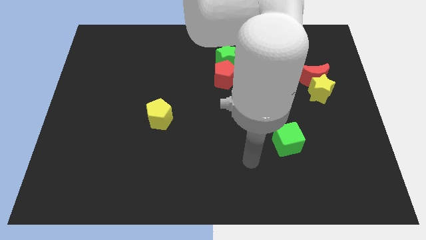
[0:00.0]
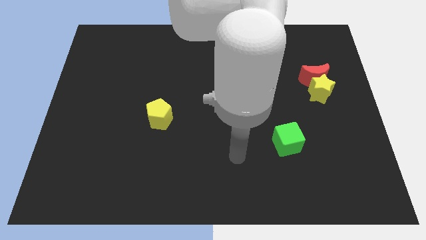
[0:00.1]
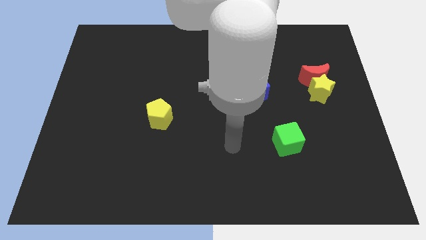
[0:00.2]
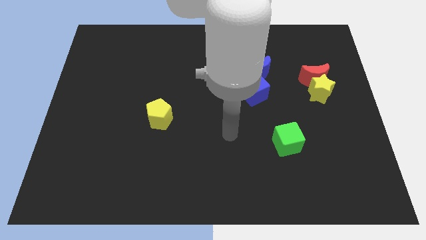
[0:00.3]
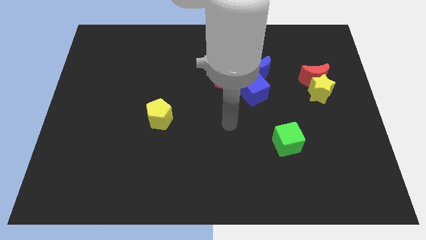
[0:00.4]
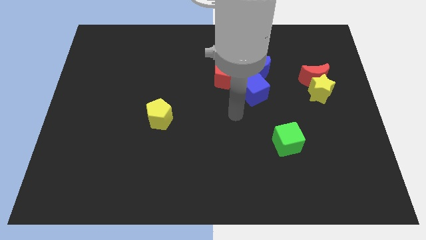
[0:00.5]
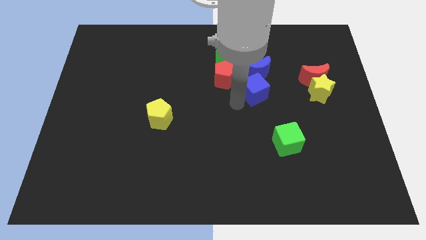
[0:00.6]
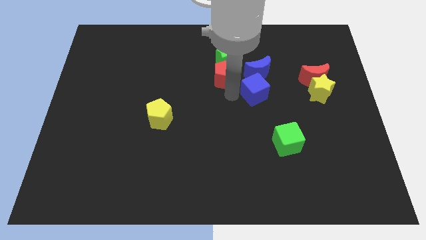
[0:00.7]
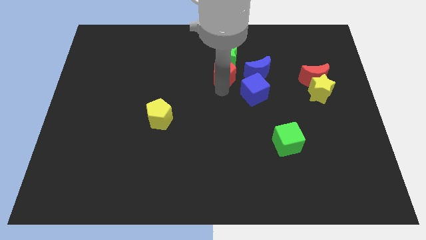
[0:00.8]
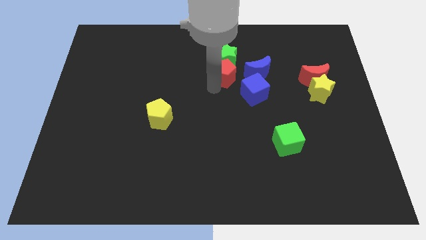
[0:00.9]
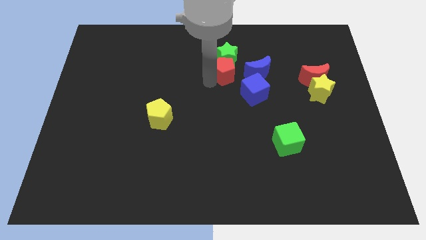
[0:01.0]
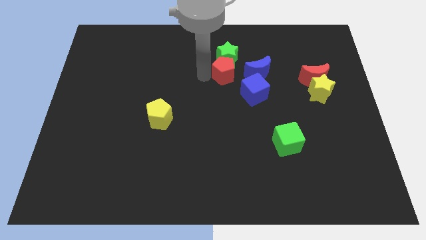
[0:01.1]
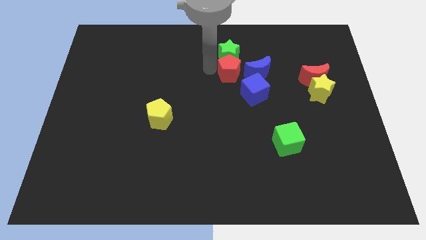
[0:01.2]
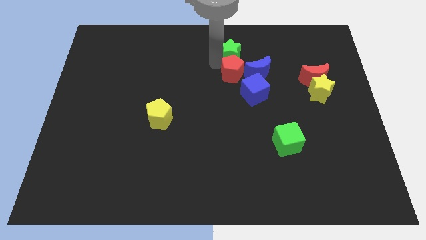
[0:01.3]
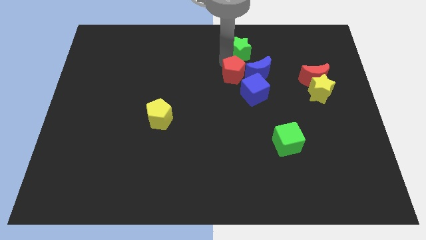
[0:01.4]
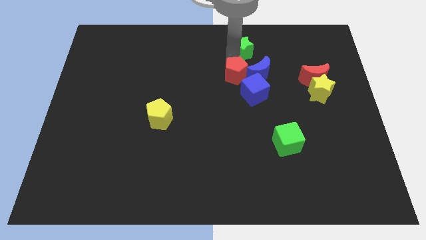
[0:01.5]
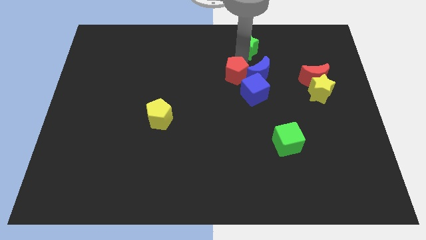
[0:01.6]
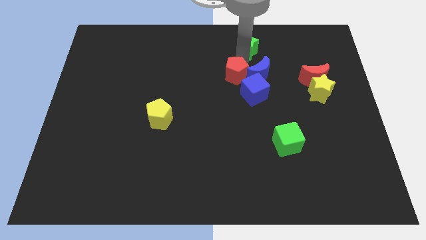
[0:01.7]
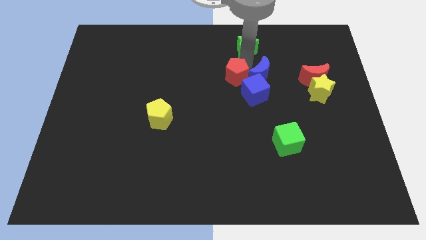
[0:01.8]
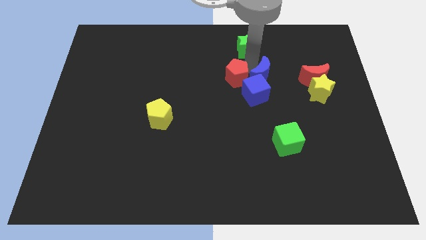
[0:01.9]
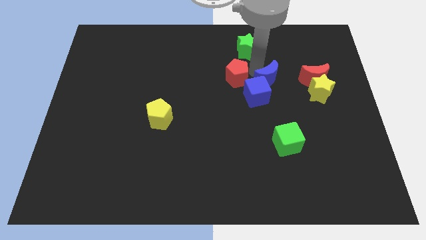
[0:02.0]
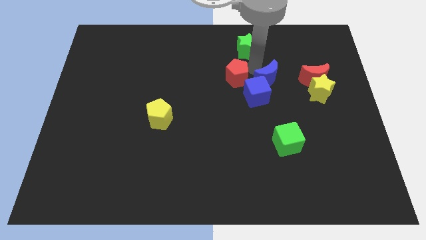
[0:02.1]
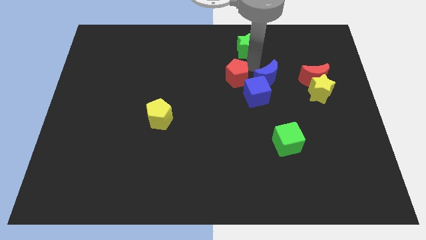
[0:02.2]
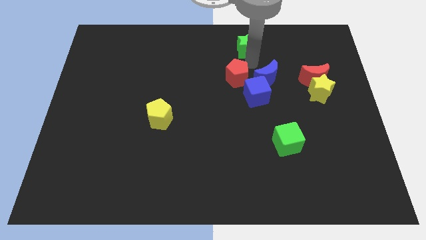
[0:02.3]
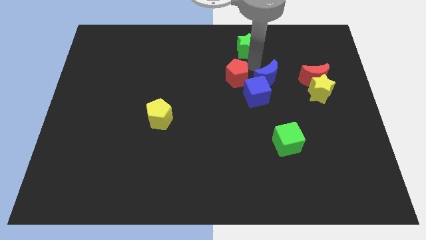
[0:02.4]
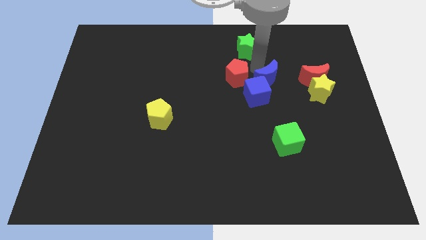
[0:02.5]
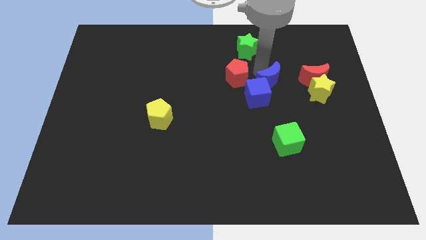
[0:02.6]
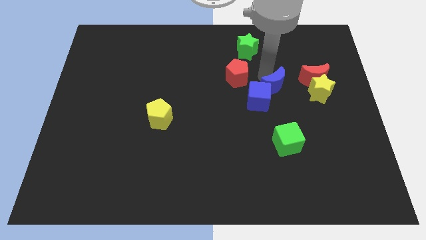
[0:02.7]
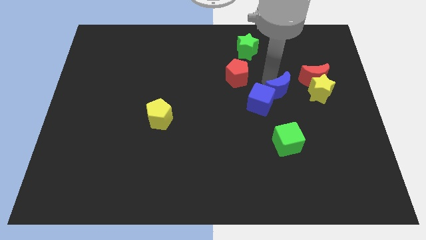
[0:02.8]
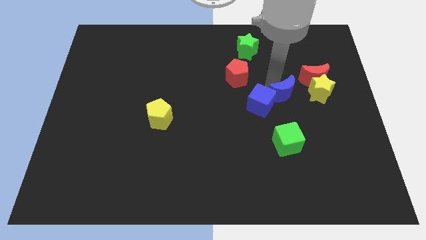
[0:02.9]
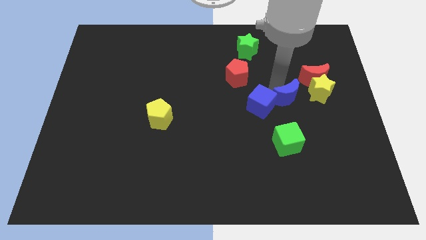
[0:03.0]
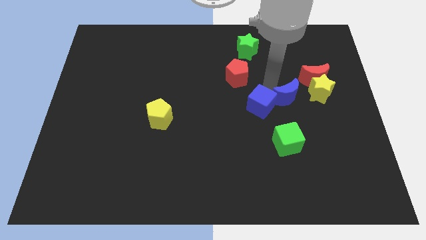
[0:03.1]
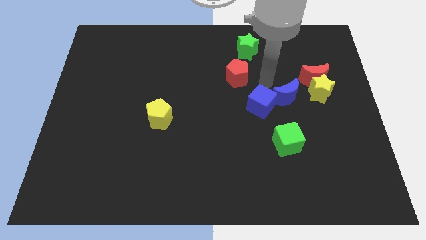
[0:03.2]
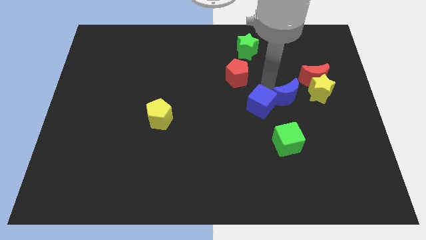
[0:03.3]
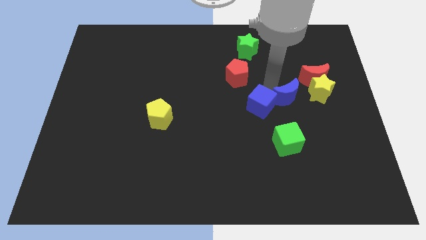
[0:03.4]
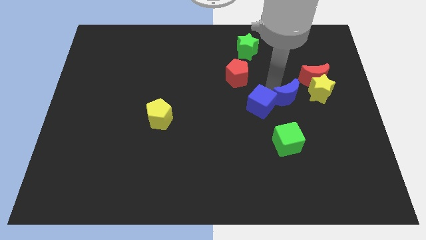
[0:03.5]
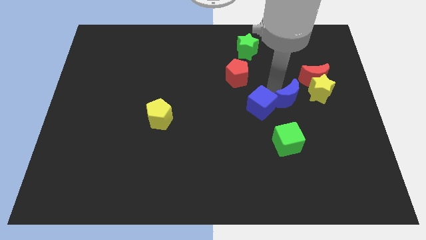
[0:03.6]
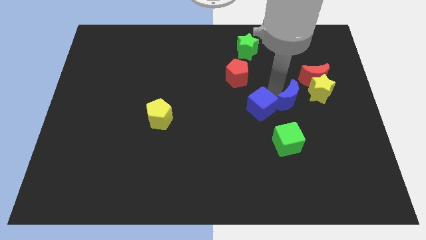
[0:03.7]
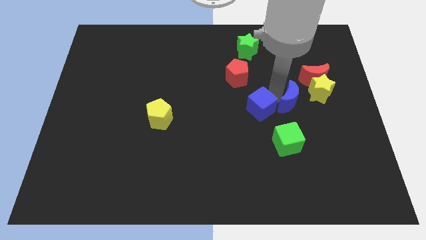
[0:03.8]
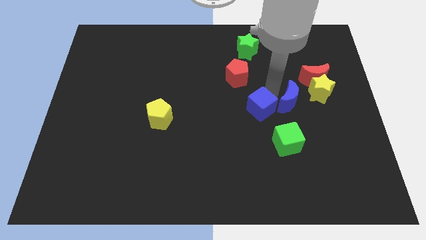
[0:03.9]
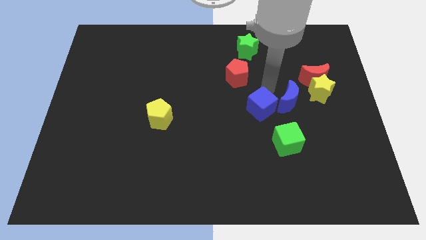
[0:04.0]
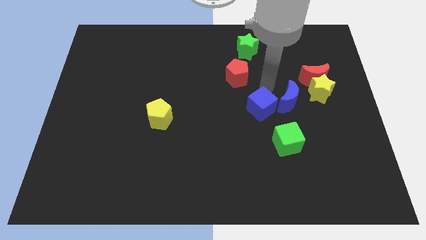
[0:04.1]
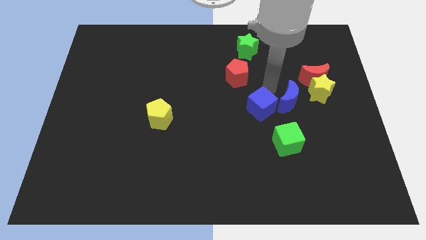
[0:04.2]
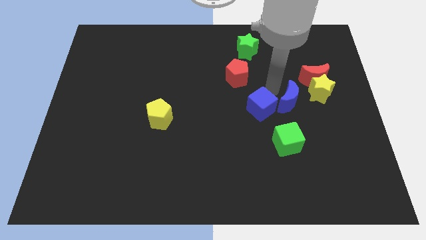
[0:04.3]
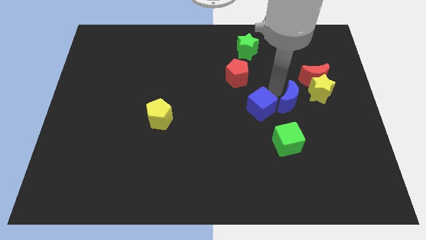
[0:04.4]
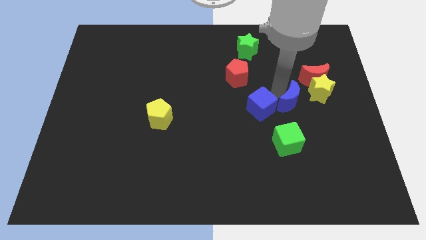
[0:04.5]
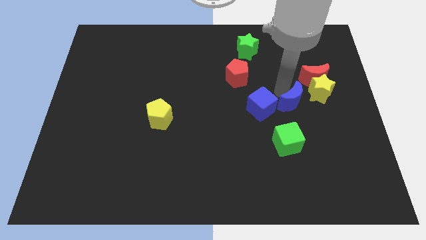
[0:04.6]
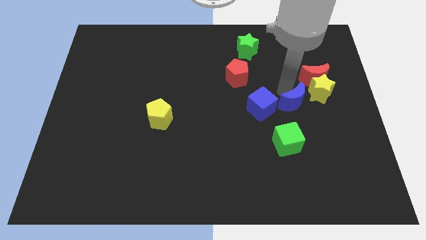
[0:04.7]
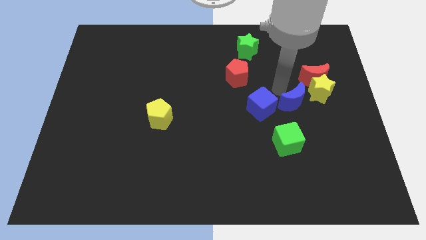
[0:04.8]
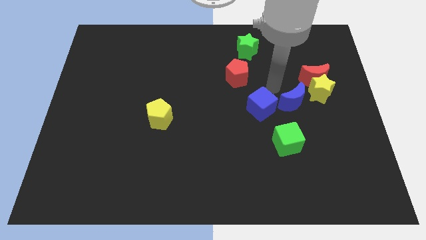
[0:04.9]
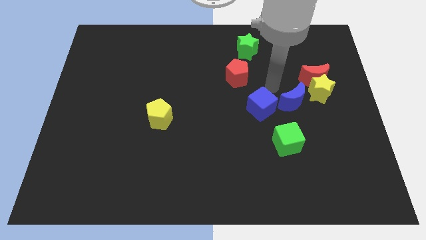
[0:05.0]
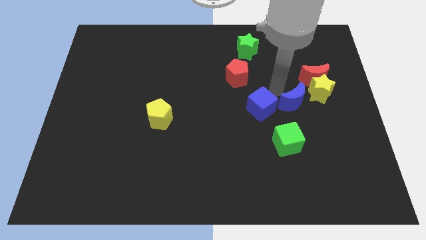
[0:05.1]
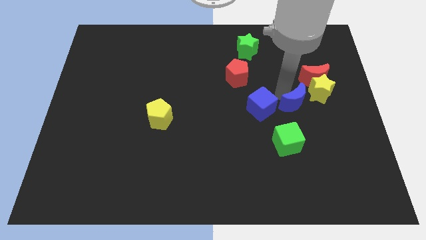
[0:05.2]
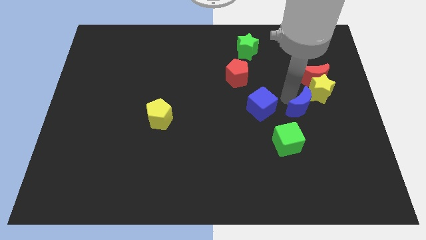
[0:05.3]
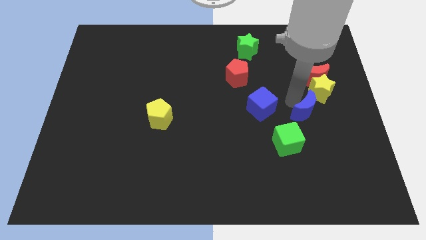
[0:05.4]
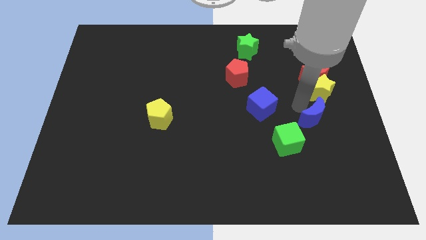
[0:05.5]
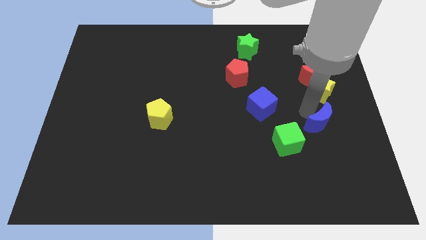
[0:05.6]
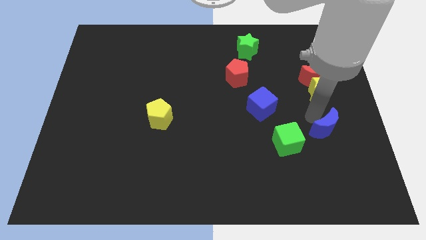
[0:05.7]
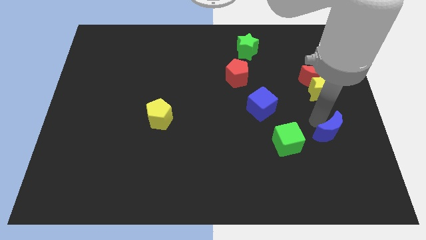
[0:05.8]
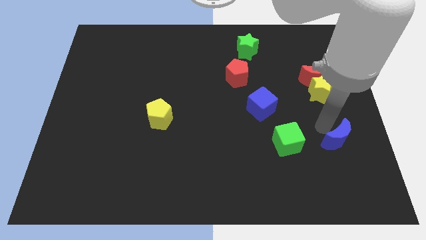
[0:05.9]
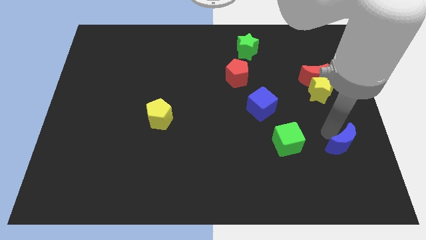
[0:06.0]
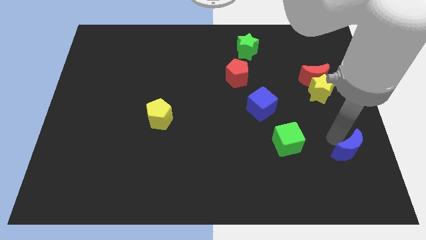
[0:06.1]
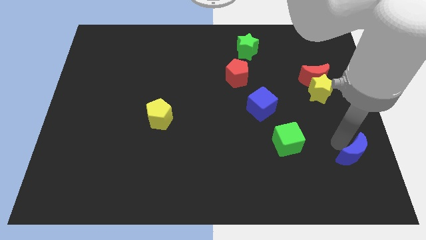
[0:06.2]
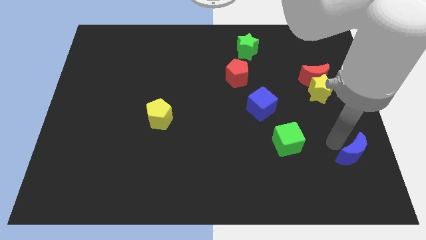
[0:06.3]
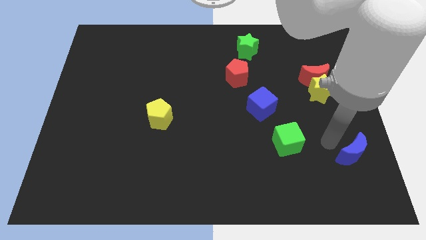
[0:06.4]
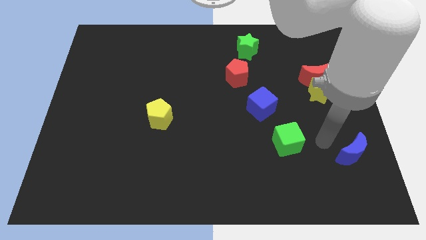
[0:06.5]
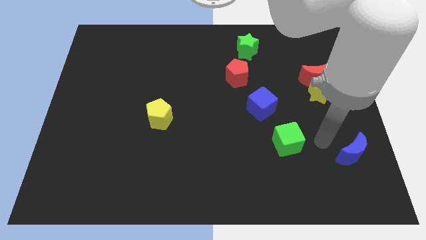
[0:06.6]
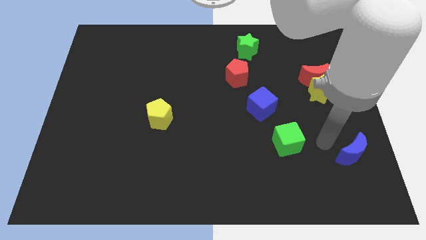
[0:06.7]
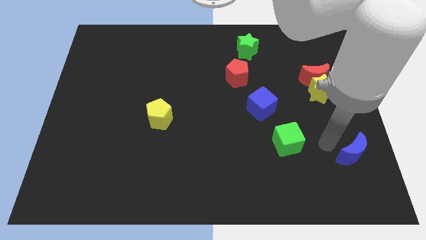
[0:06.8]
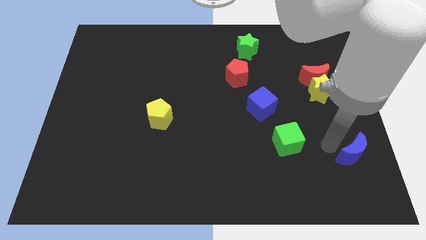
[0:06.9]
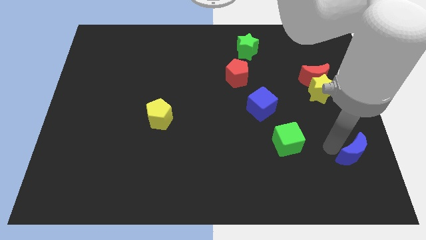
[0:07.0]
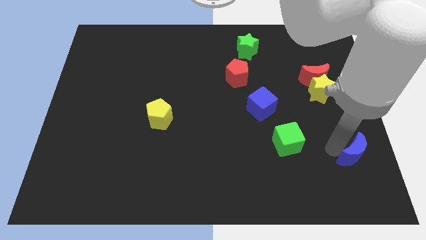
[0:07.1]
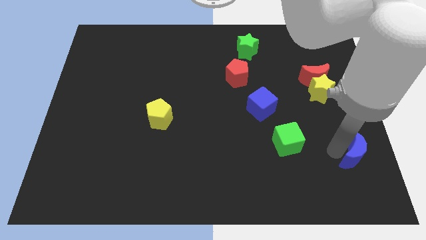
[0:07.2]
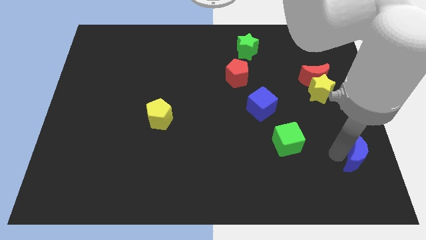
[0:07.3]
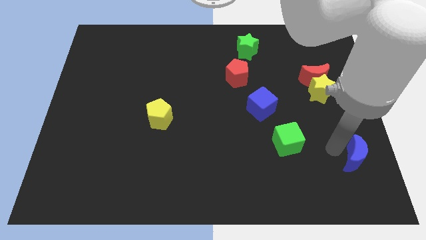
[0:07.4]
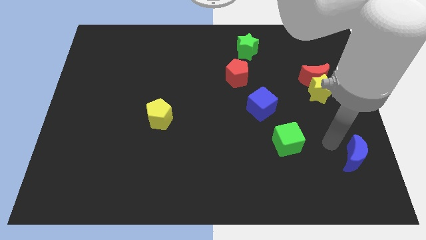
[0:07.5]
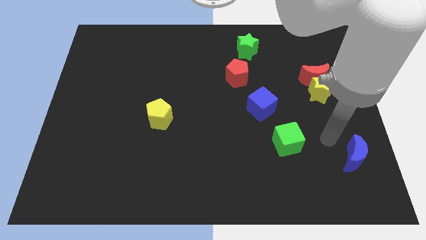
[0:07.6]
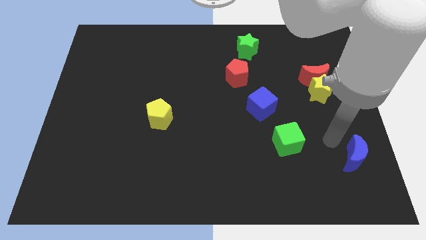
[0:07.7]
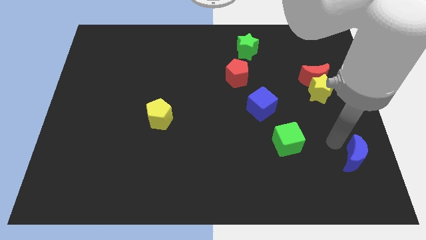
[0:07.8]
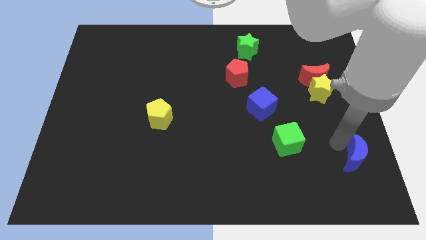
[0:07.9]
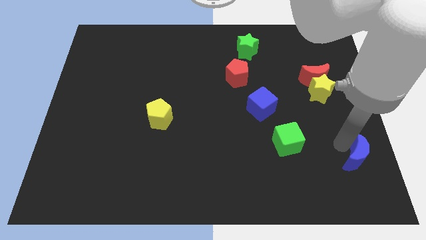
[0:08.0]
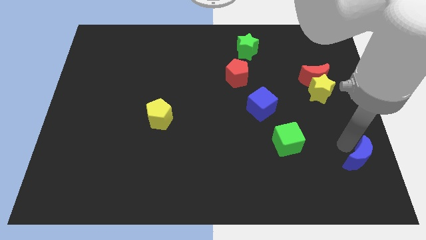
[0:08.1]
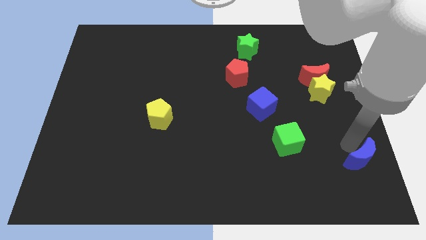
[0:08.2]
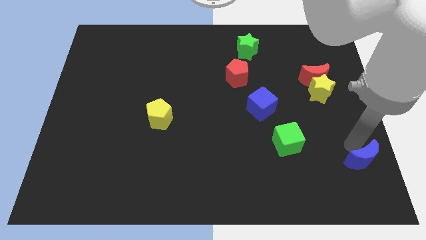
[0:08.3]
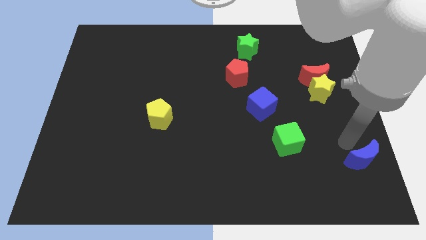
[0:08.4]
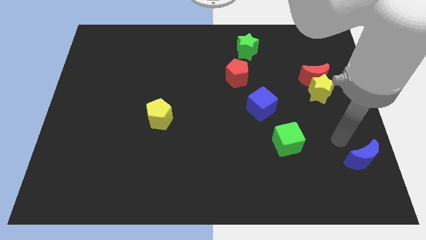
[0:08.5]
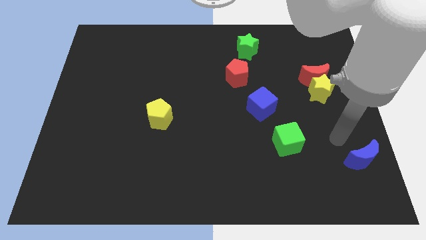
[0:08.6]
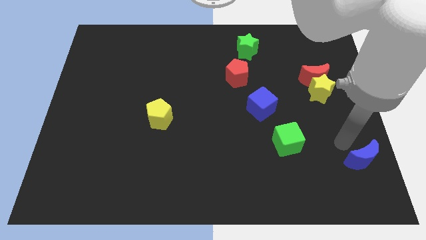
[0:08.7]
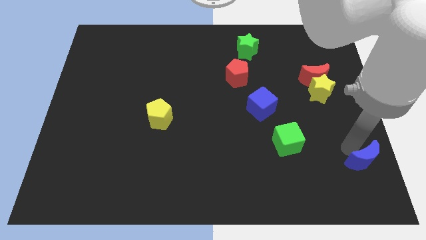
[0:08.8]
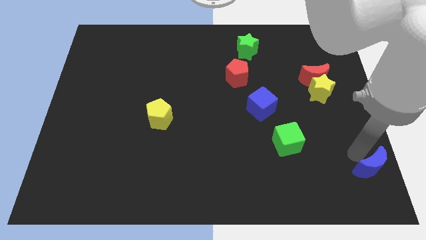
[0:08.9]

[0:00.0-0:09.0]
put the blue moon to the bottom right of the board
